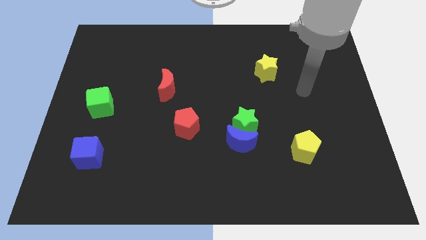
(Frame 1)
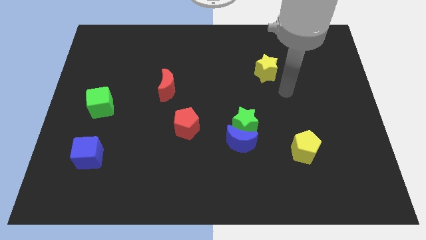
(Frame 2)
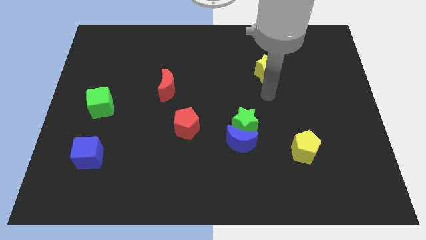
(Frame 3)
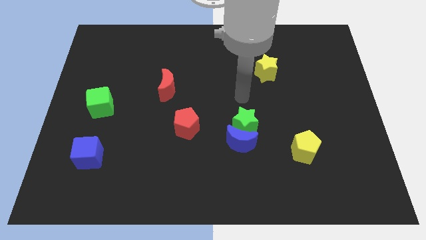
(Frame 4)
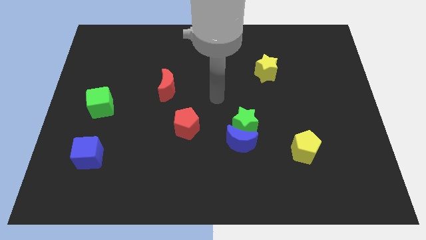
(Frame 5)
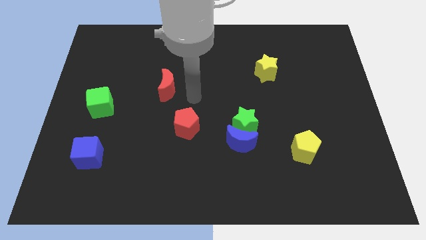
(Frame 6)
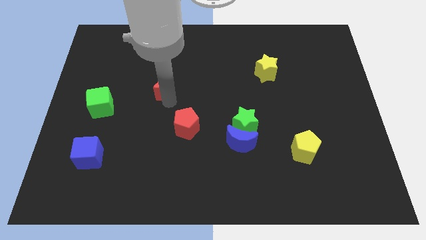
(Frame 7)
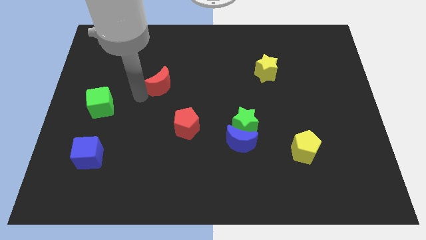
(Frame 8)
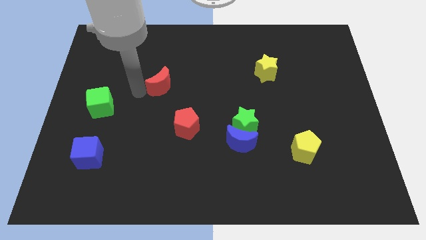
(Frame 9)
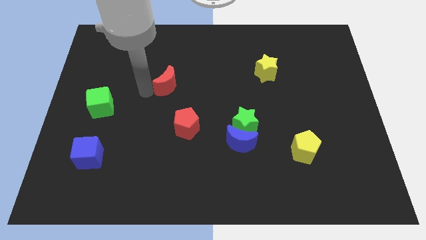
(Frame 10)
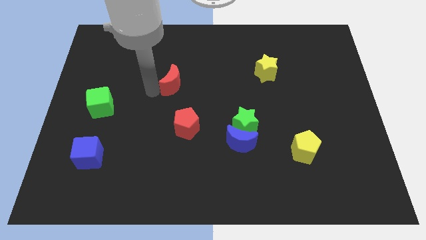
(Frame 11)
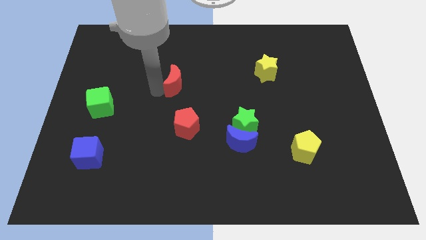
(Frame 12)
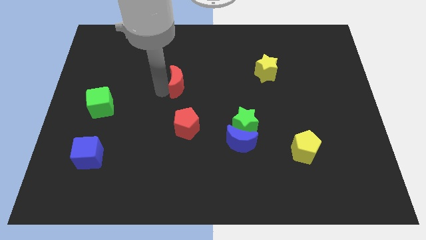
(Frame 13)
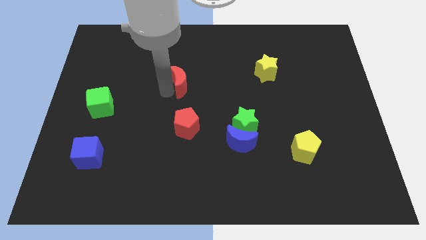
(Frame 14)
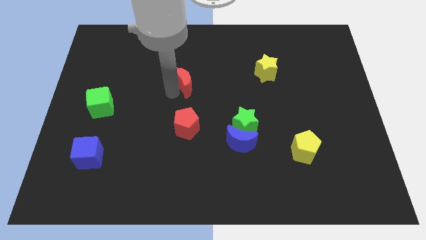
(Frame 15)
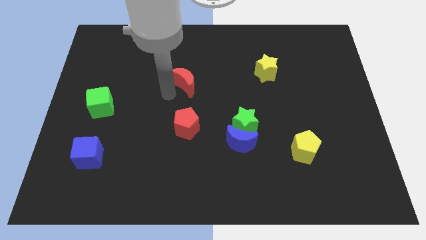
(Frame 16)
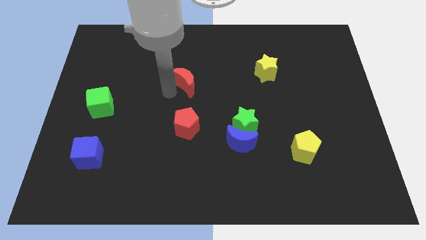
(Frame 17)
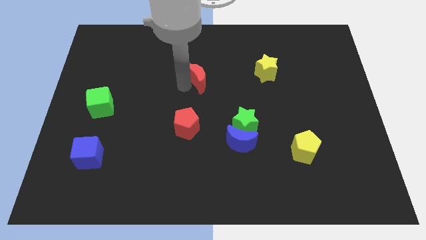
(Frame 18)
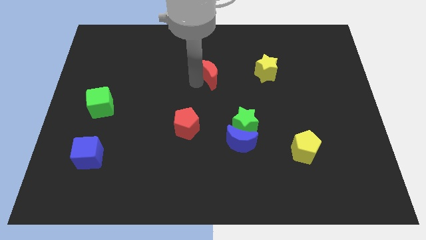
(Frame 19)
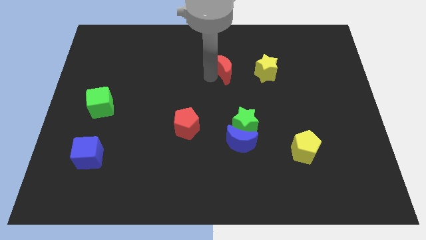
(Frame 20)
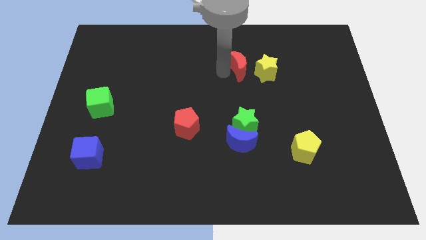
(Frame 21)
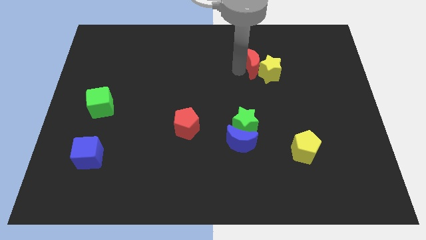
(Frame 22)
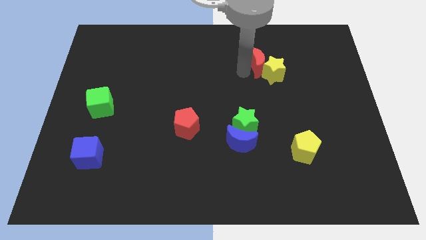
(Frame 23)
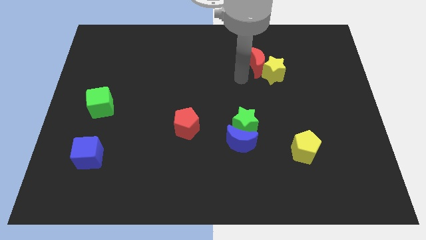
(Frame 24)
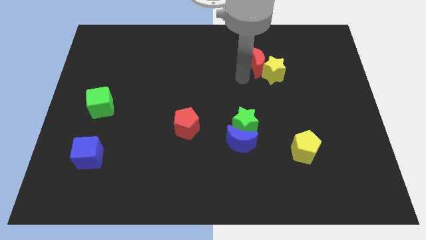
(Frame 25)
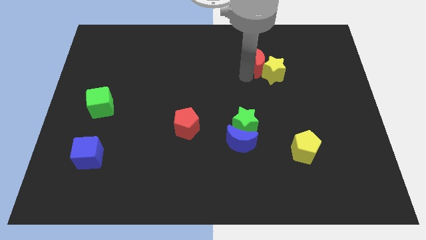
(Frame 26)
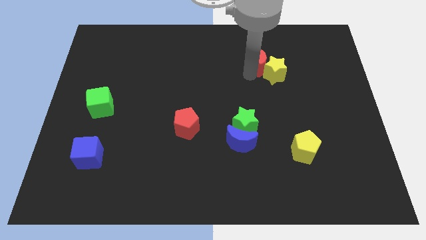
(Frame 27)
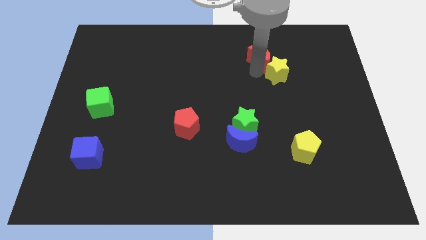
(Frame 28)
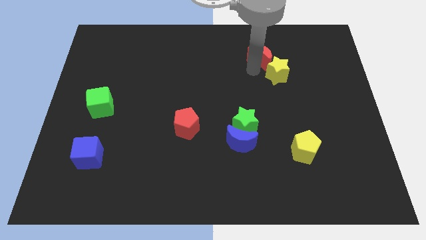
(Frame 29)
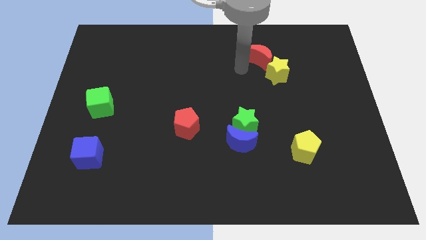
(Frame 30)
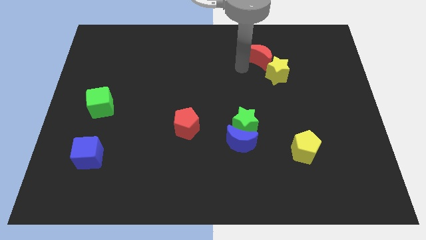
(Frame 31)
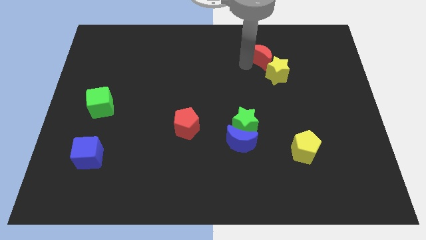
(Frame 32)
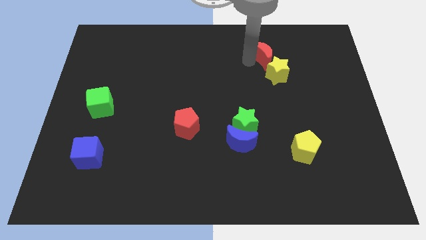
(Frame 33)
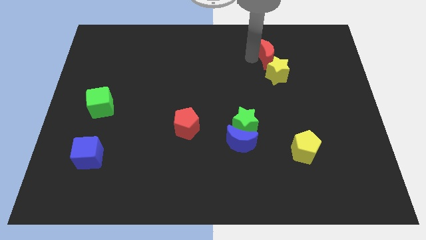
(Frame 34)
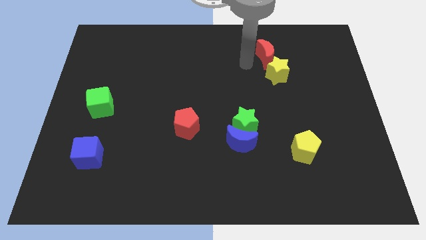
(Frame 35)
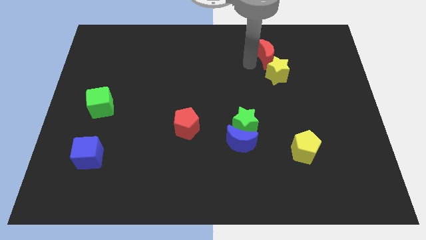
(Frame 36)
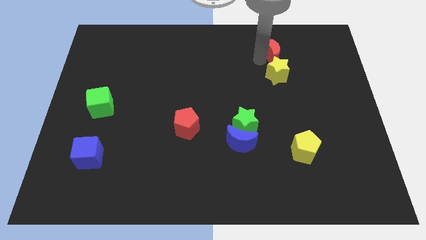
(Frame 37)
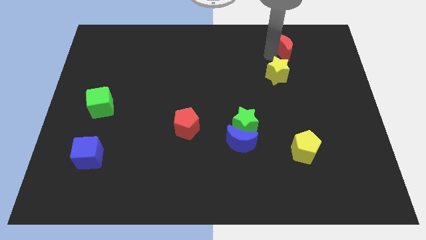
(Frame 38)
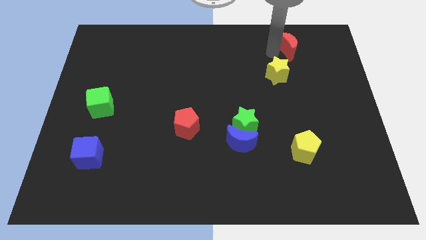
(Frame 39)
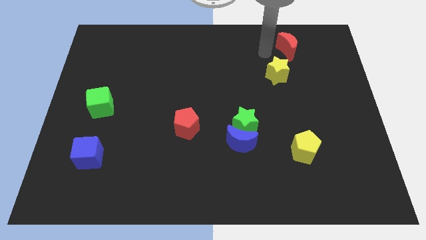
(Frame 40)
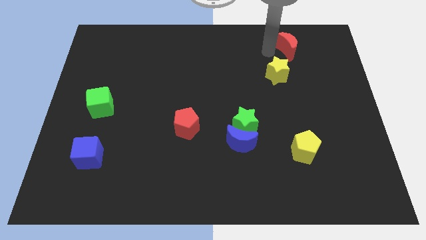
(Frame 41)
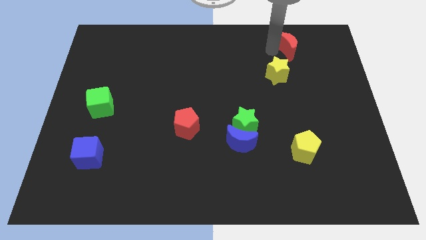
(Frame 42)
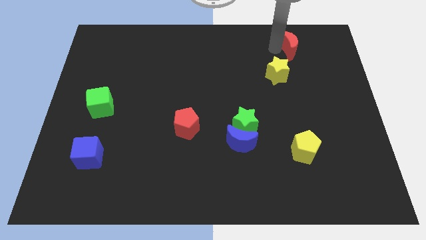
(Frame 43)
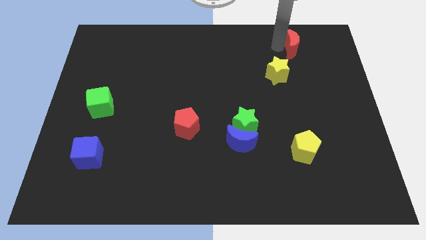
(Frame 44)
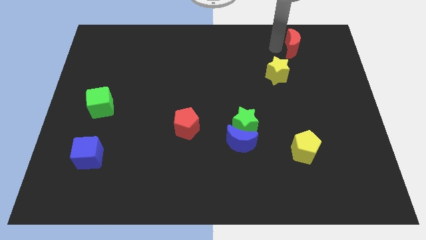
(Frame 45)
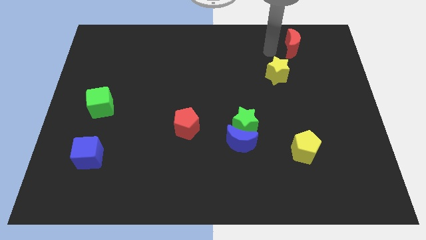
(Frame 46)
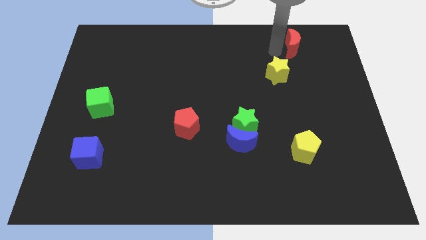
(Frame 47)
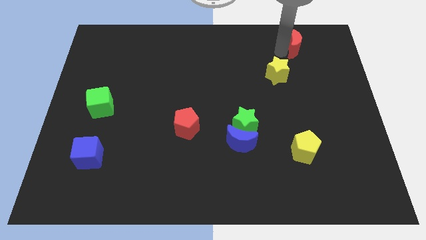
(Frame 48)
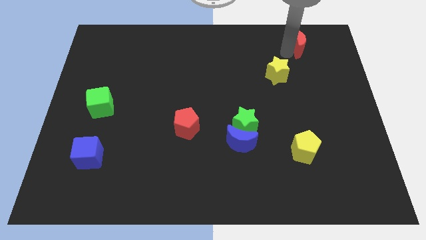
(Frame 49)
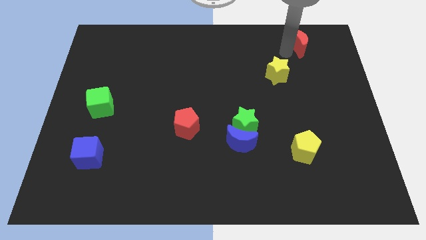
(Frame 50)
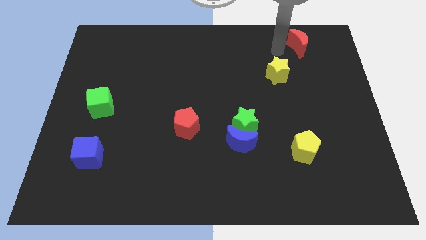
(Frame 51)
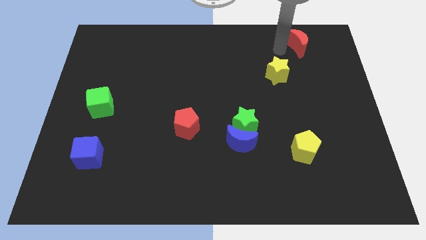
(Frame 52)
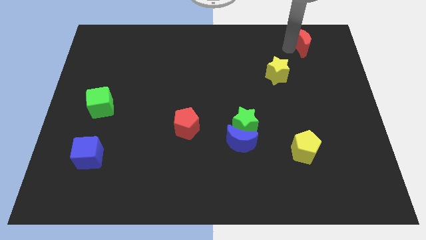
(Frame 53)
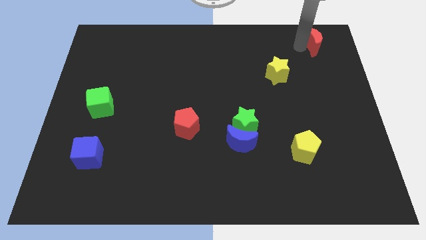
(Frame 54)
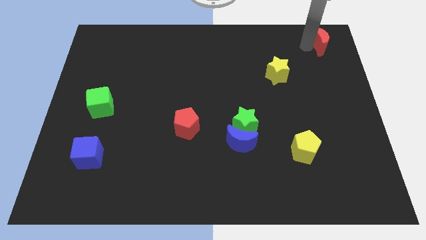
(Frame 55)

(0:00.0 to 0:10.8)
push the red moon to the top right corner
